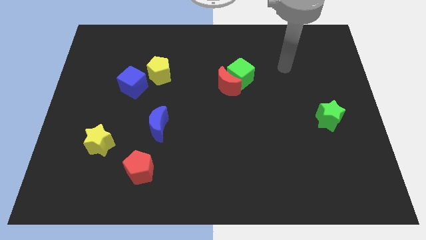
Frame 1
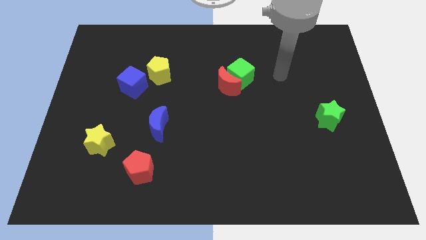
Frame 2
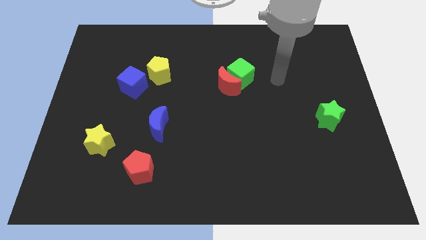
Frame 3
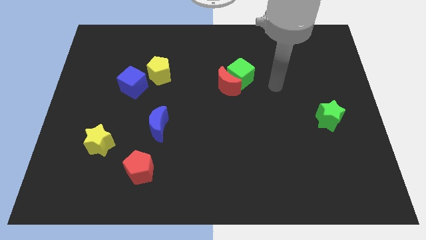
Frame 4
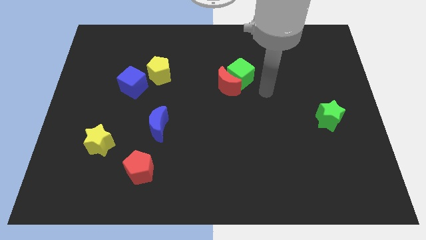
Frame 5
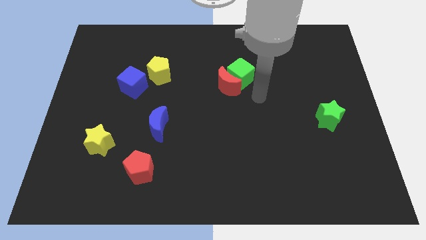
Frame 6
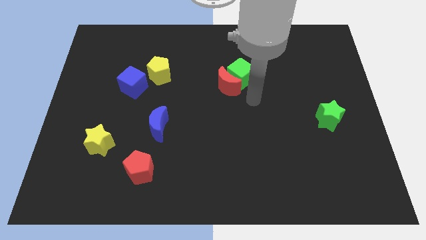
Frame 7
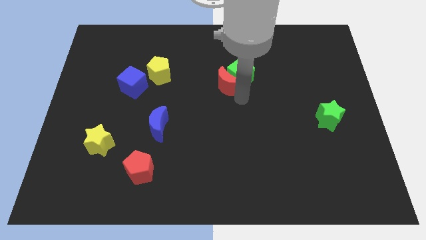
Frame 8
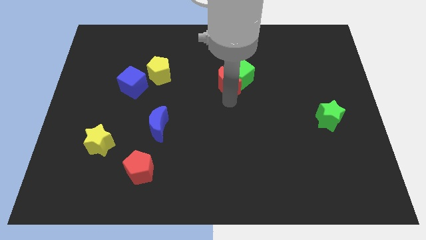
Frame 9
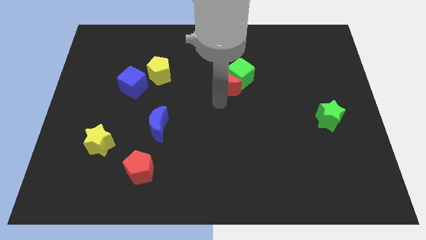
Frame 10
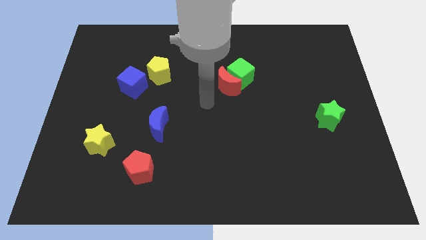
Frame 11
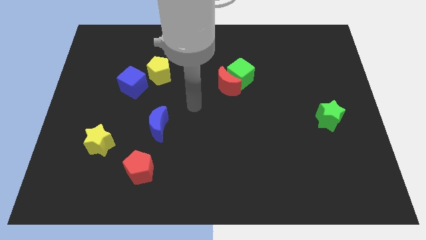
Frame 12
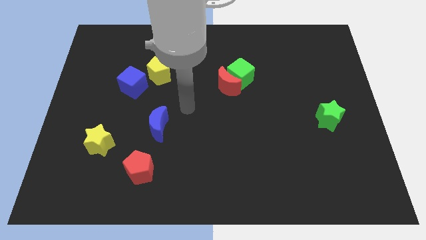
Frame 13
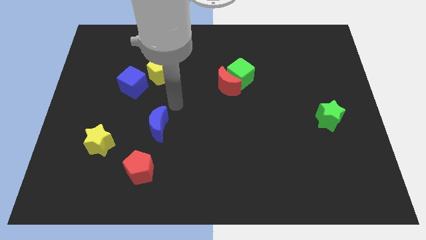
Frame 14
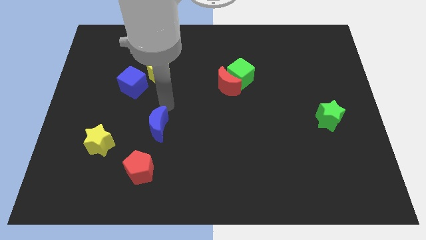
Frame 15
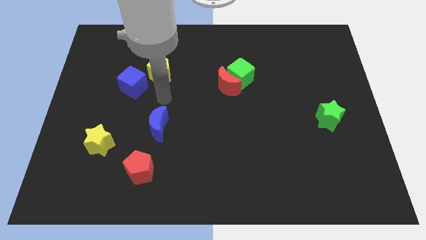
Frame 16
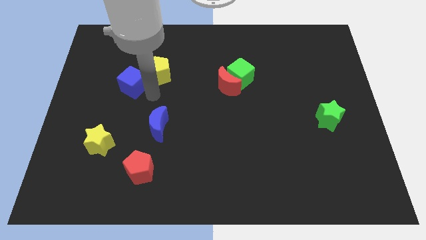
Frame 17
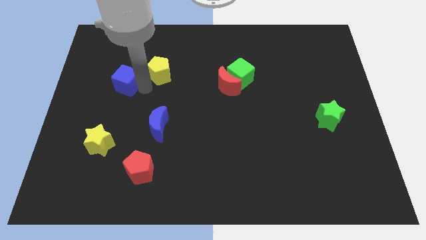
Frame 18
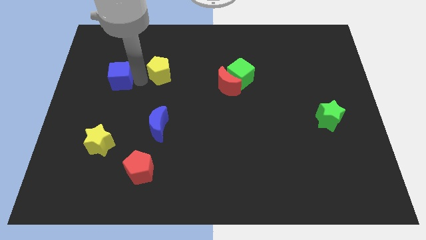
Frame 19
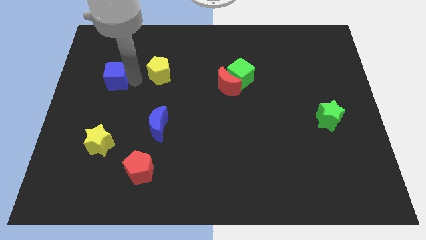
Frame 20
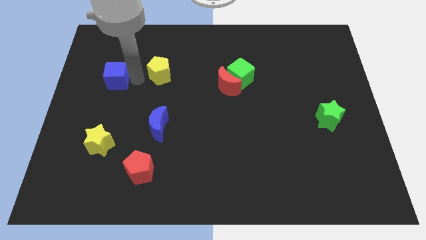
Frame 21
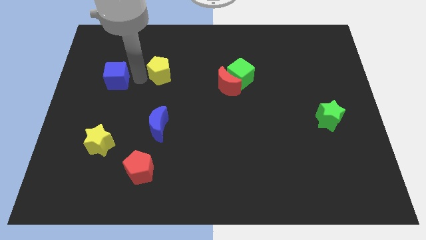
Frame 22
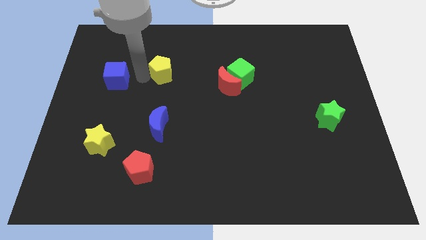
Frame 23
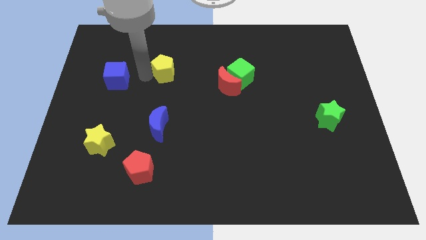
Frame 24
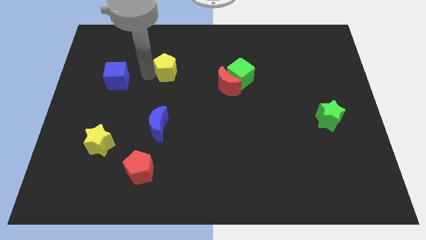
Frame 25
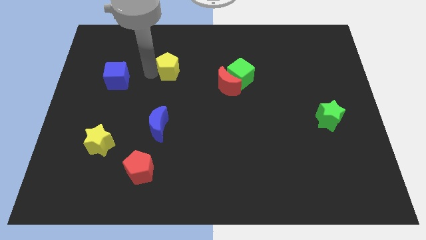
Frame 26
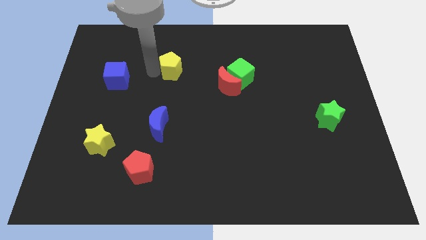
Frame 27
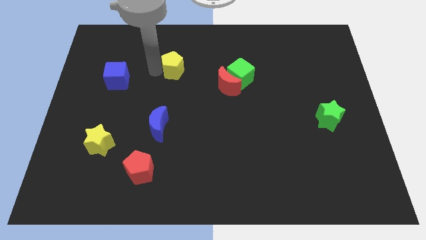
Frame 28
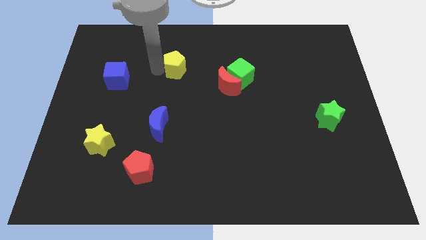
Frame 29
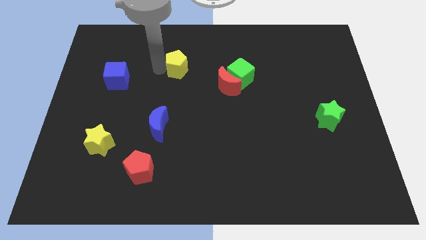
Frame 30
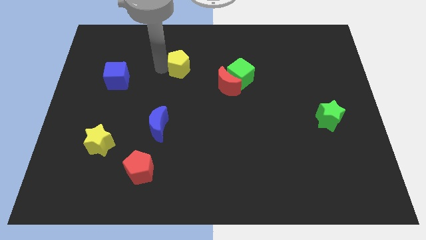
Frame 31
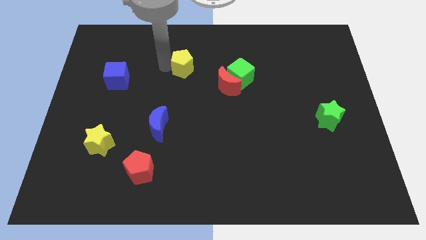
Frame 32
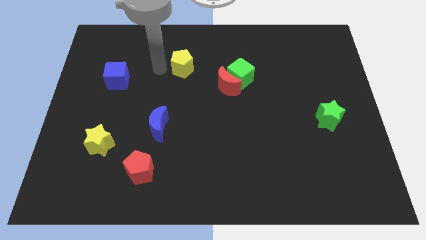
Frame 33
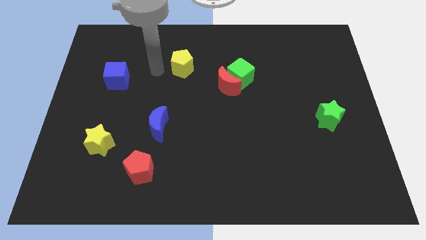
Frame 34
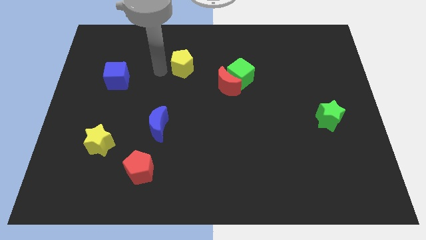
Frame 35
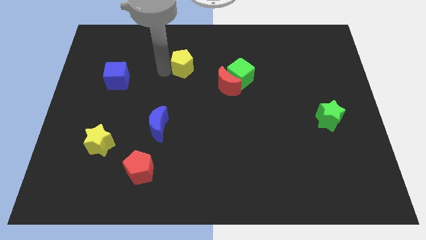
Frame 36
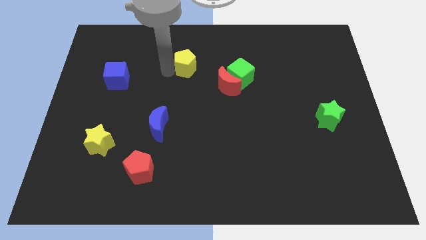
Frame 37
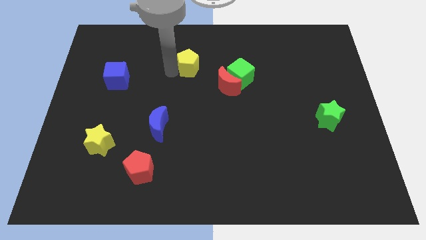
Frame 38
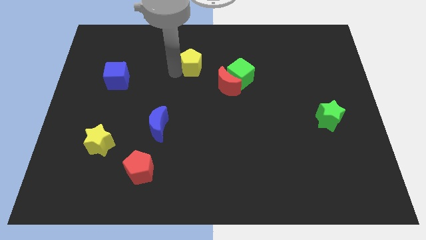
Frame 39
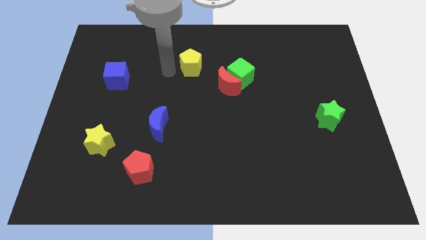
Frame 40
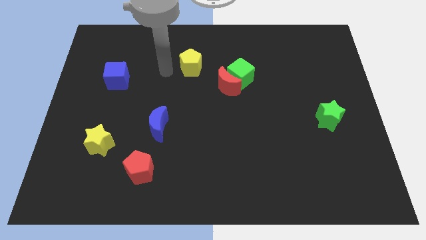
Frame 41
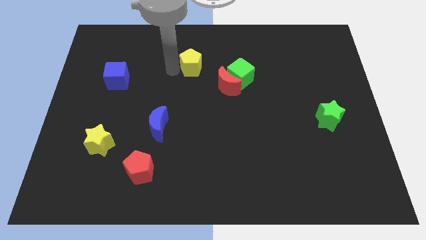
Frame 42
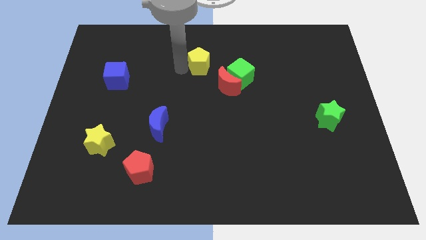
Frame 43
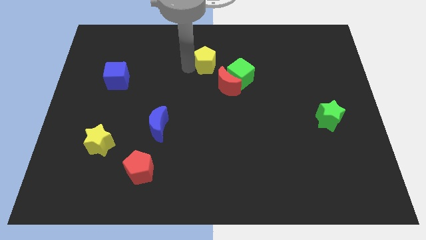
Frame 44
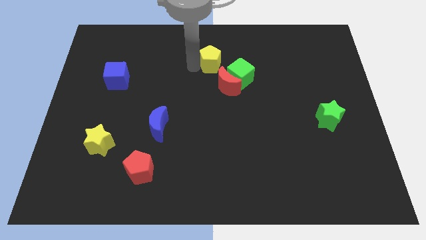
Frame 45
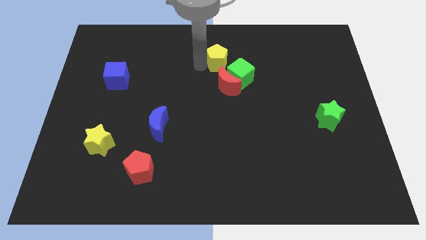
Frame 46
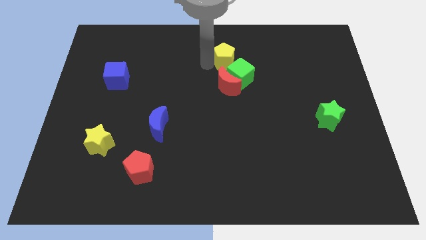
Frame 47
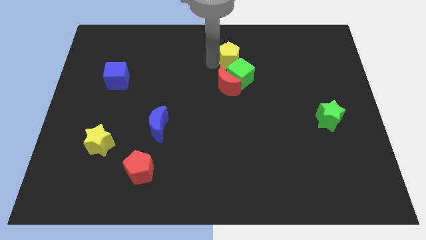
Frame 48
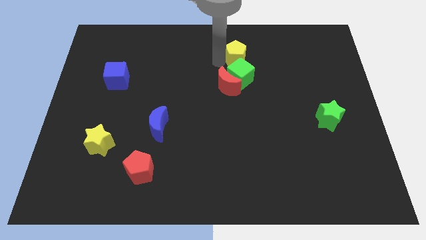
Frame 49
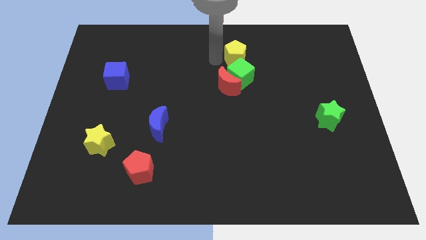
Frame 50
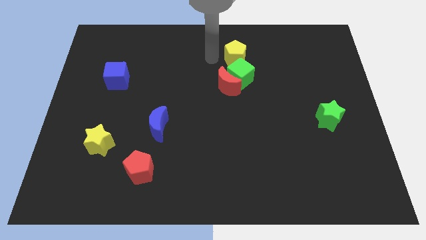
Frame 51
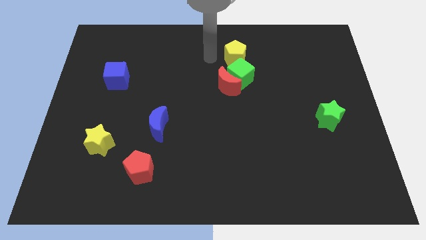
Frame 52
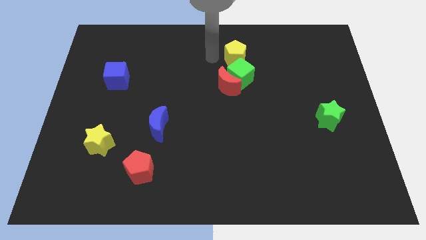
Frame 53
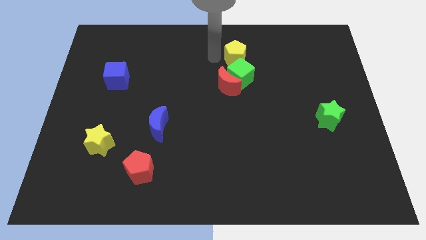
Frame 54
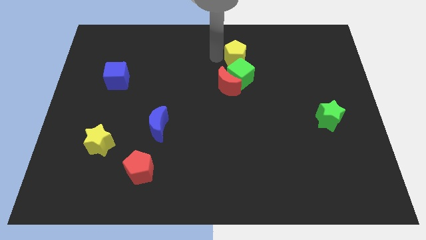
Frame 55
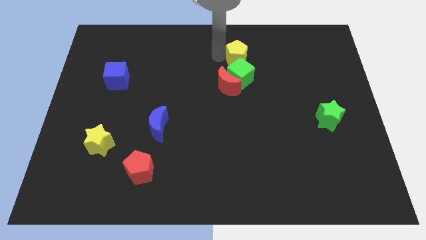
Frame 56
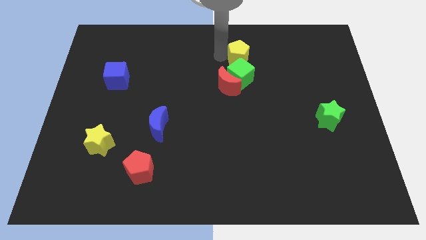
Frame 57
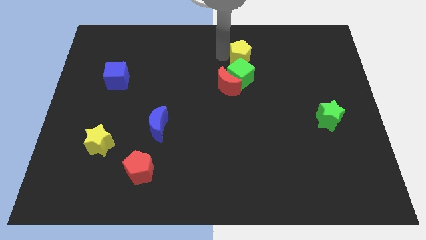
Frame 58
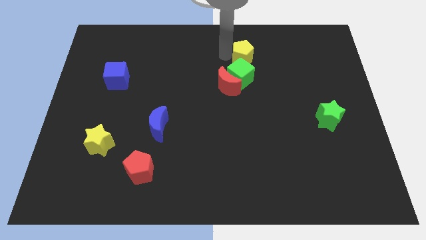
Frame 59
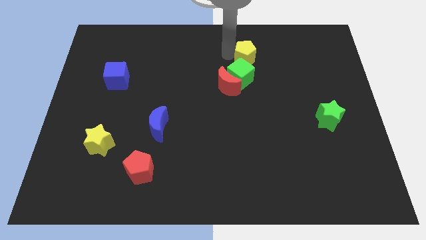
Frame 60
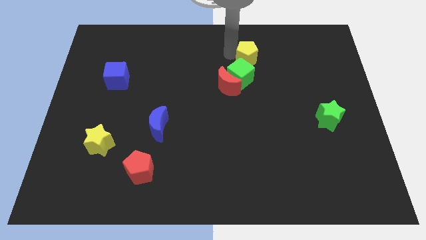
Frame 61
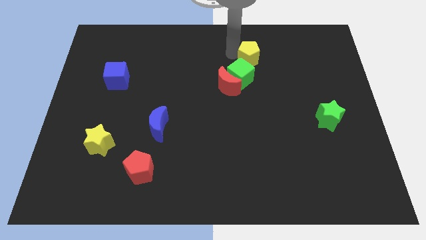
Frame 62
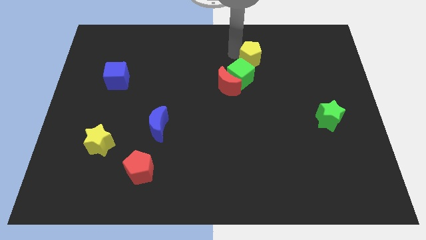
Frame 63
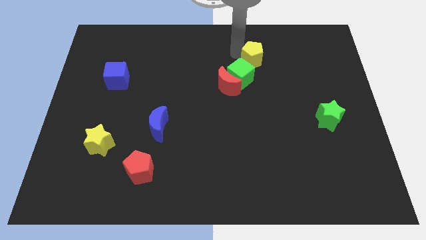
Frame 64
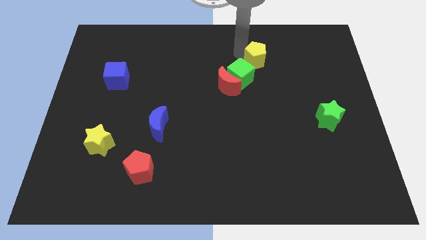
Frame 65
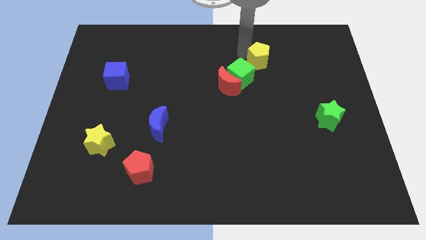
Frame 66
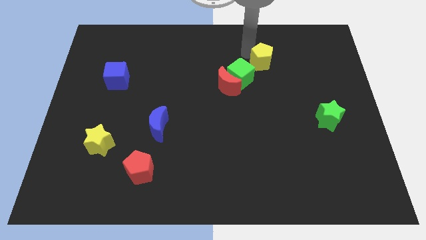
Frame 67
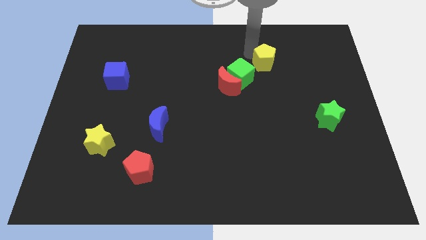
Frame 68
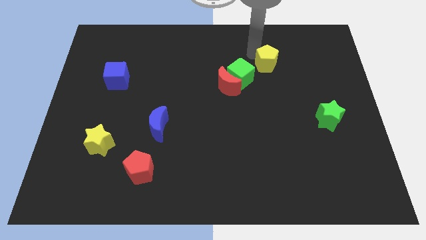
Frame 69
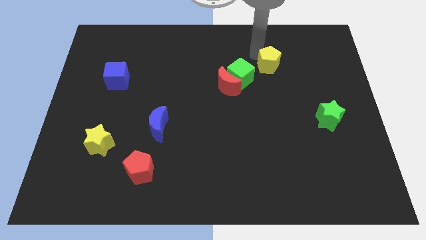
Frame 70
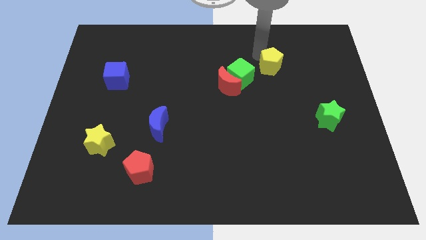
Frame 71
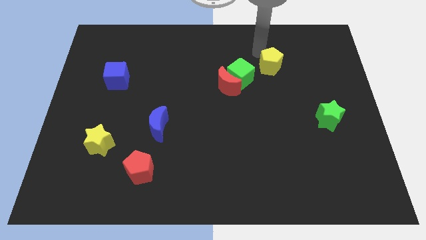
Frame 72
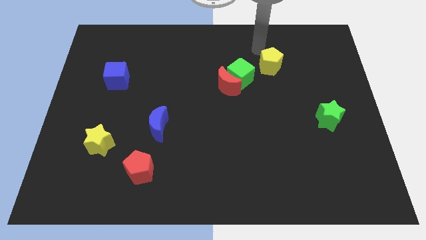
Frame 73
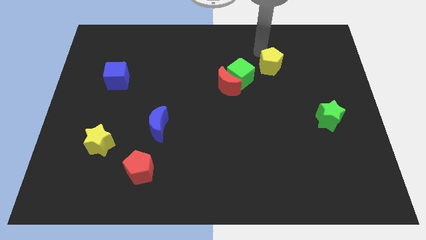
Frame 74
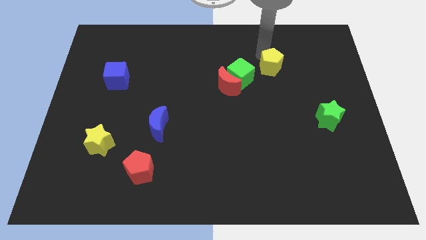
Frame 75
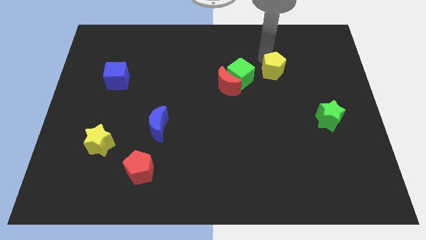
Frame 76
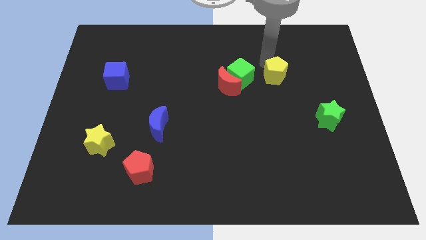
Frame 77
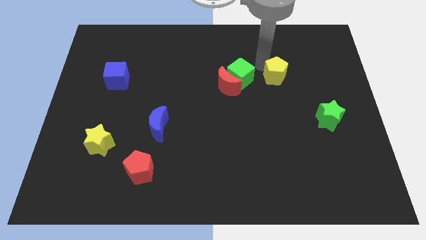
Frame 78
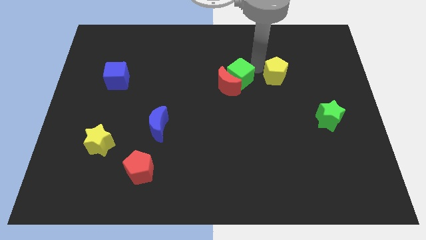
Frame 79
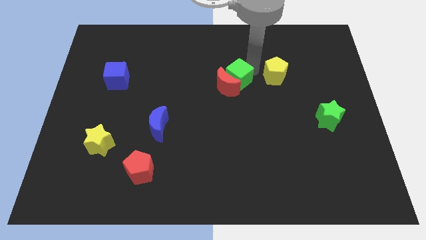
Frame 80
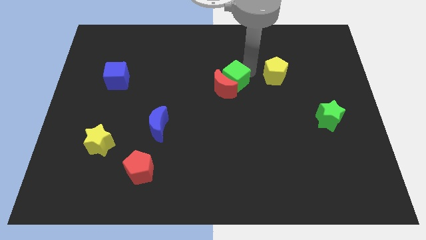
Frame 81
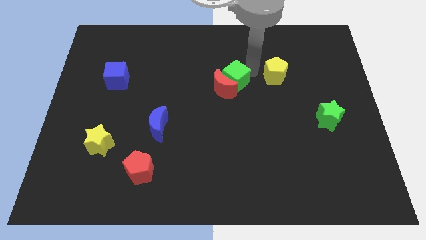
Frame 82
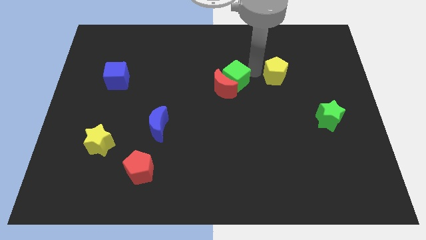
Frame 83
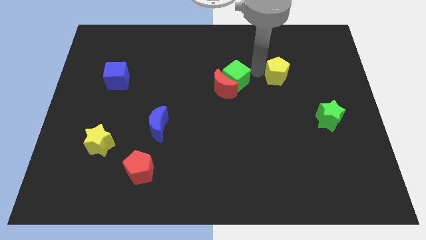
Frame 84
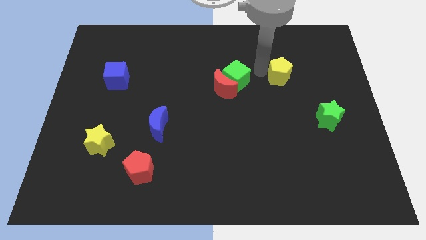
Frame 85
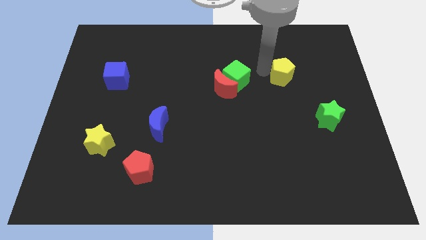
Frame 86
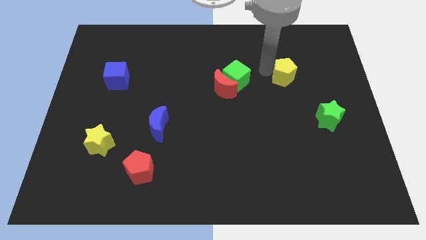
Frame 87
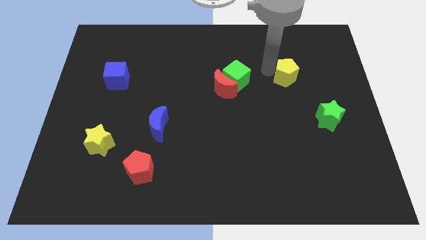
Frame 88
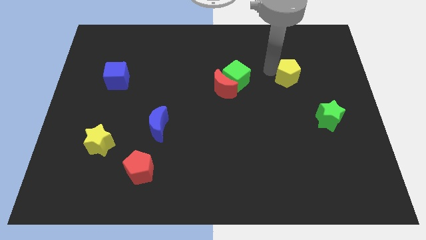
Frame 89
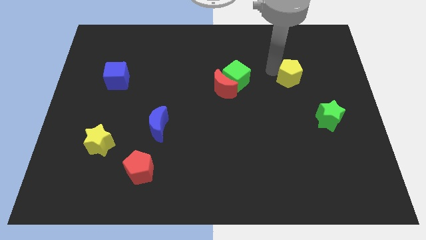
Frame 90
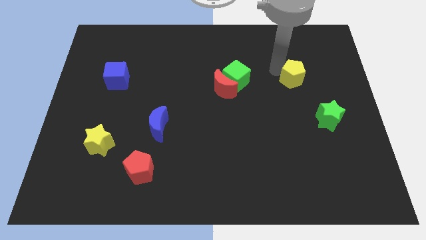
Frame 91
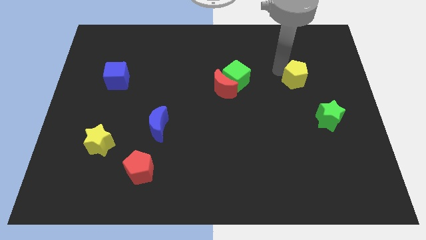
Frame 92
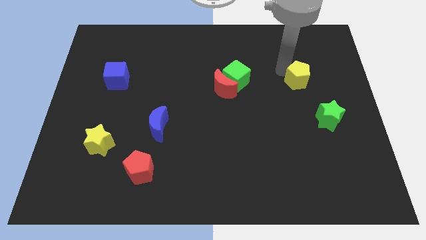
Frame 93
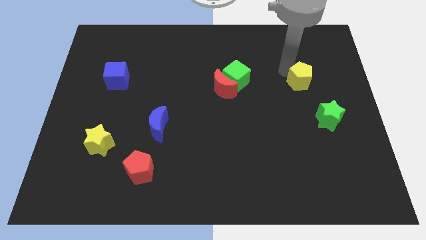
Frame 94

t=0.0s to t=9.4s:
put the yellow pentagon above the green star
